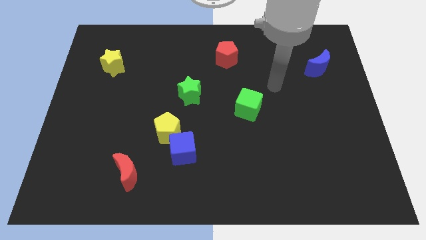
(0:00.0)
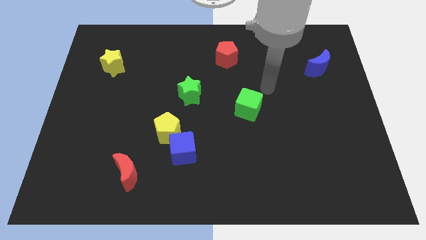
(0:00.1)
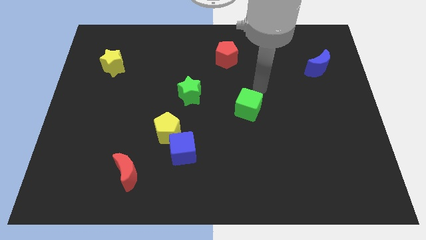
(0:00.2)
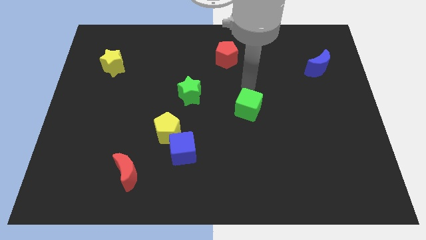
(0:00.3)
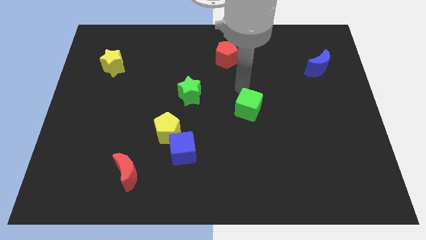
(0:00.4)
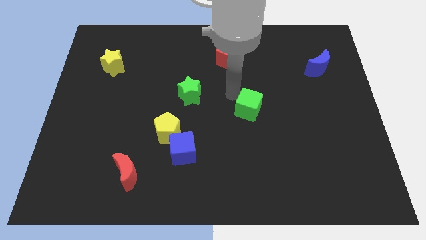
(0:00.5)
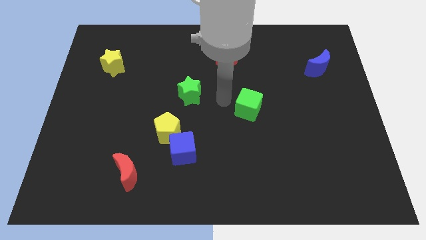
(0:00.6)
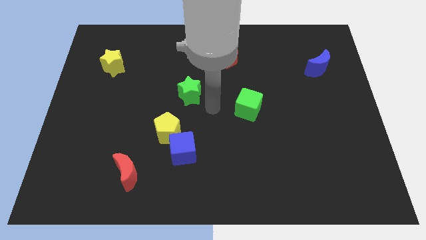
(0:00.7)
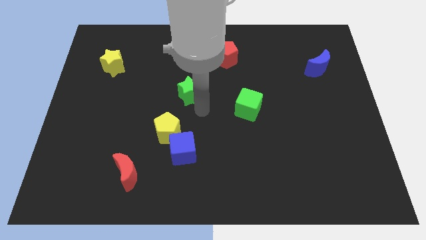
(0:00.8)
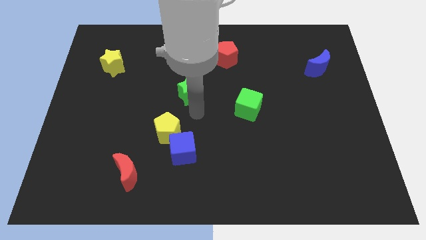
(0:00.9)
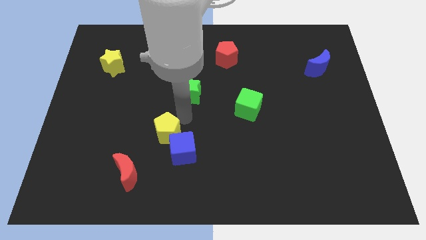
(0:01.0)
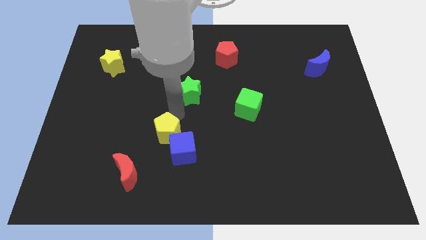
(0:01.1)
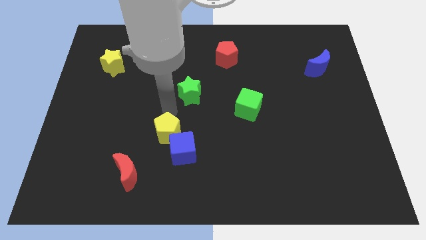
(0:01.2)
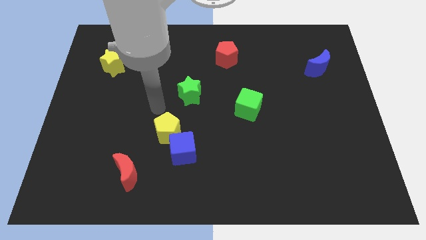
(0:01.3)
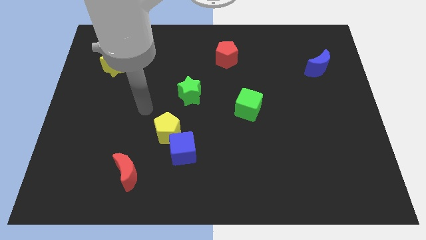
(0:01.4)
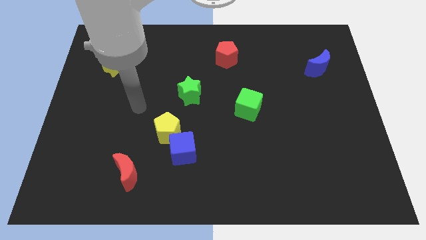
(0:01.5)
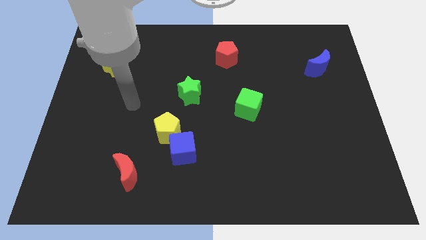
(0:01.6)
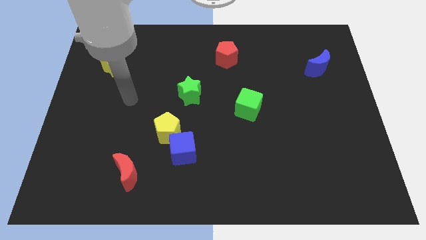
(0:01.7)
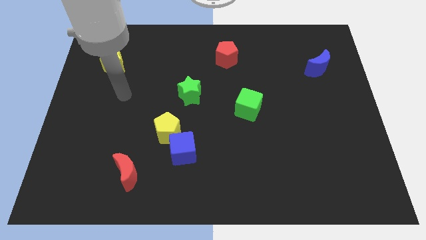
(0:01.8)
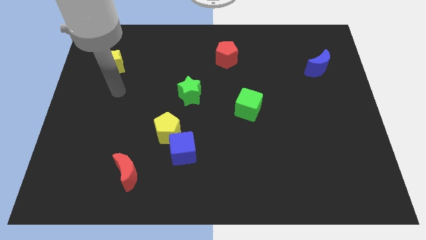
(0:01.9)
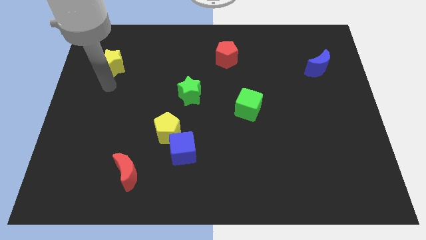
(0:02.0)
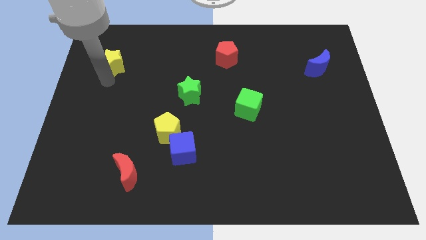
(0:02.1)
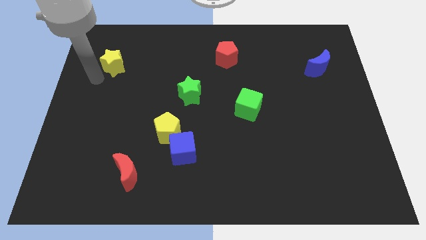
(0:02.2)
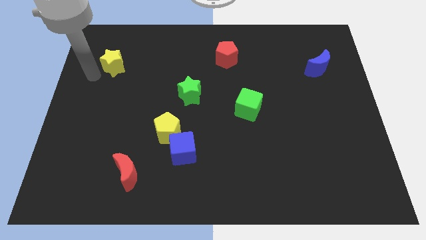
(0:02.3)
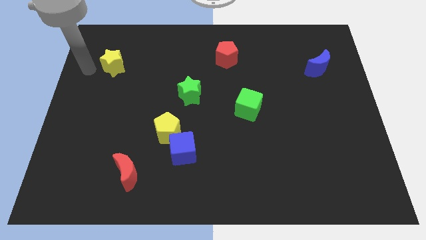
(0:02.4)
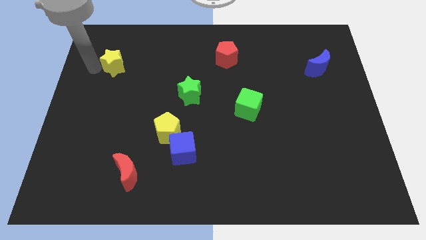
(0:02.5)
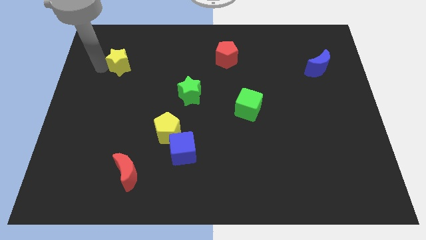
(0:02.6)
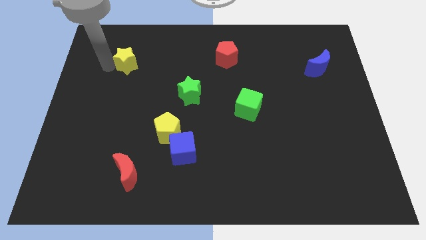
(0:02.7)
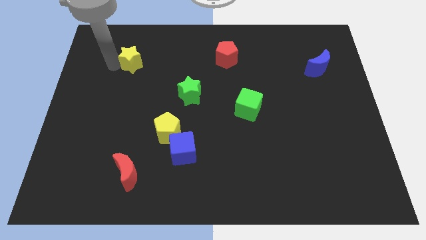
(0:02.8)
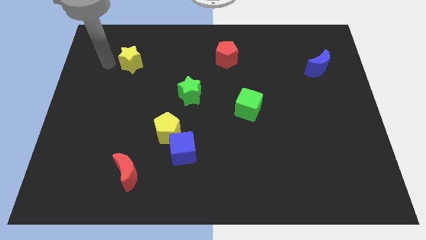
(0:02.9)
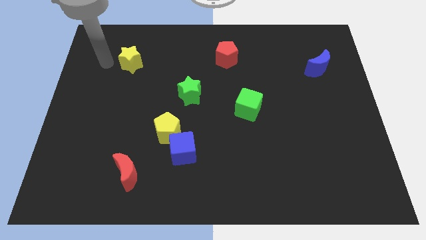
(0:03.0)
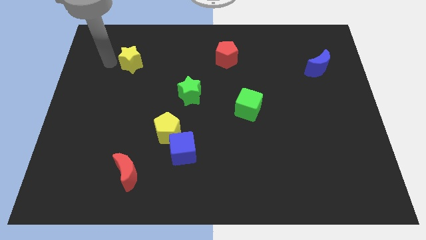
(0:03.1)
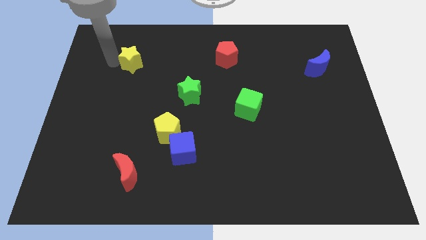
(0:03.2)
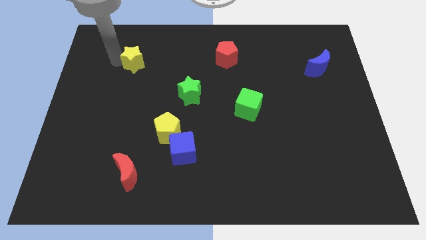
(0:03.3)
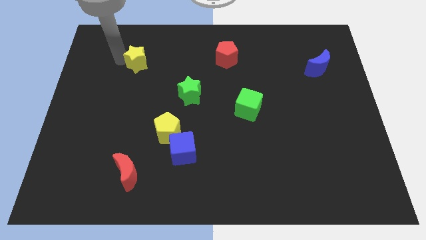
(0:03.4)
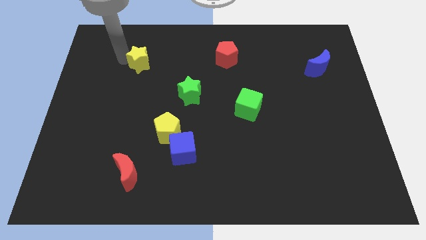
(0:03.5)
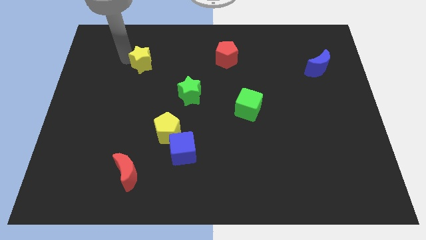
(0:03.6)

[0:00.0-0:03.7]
slide the yellow star to the right a little

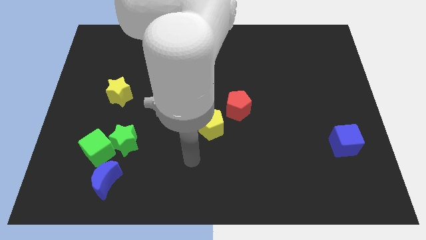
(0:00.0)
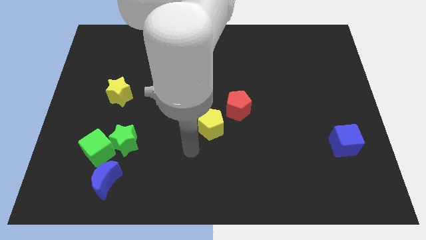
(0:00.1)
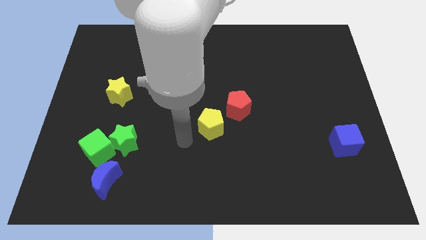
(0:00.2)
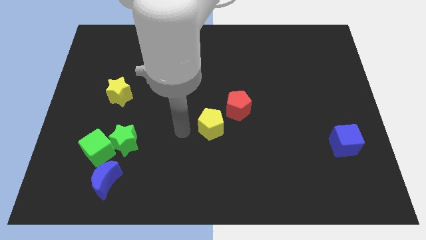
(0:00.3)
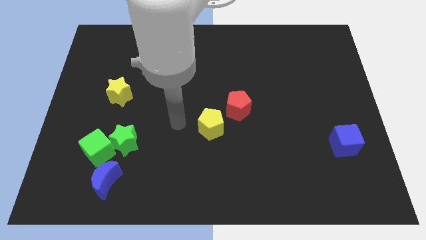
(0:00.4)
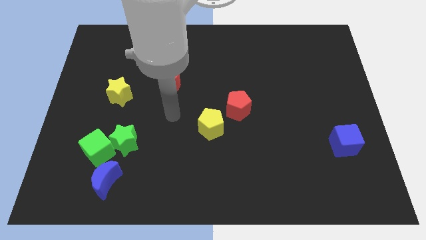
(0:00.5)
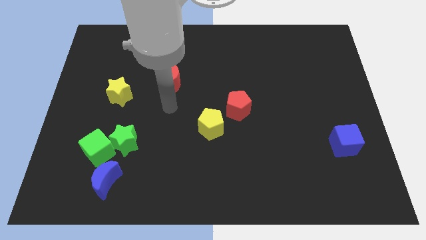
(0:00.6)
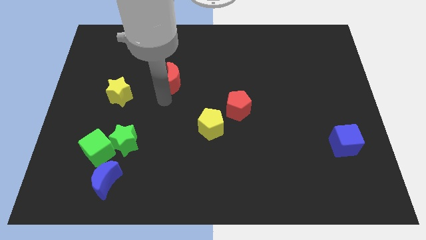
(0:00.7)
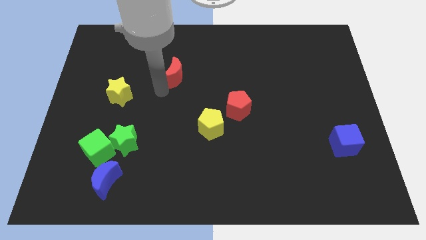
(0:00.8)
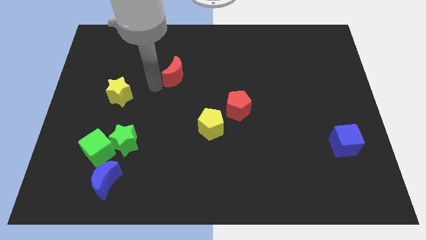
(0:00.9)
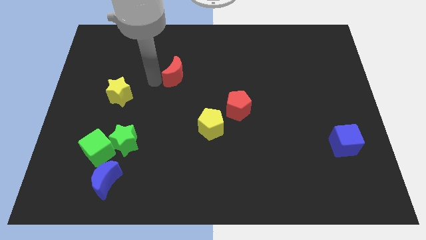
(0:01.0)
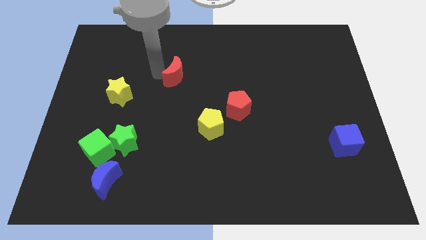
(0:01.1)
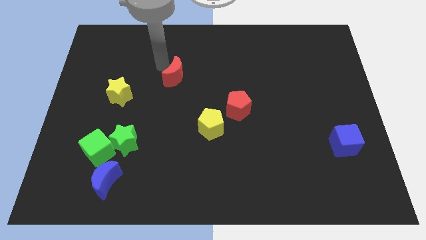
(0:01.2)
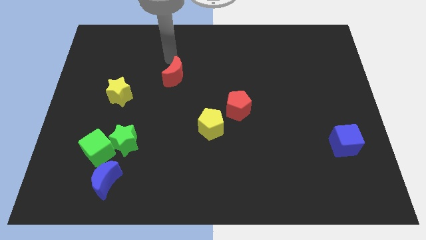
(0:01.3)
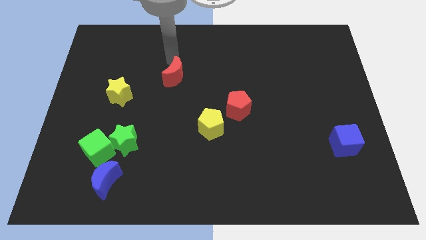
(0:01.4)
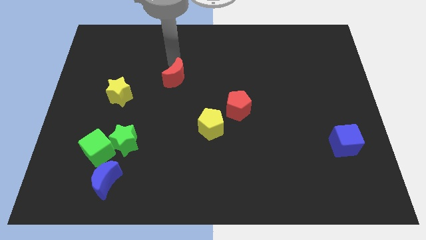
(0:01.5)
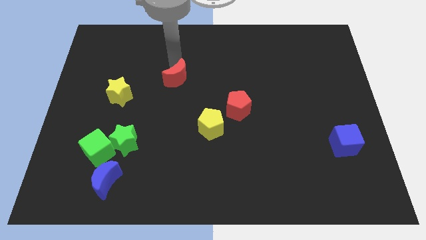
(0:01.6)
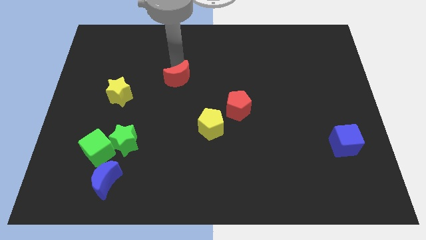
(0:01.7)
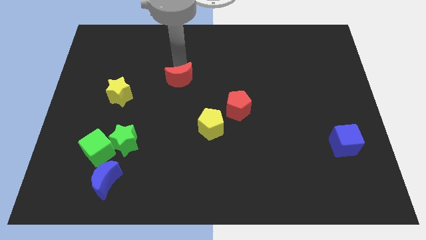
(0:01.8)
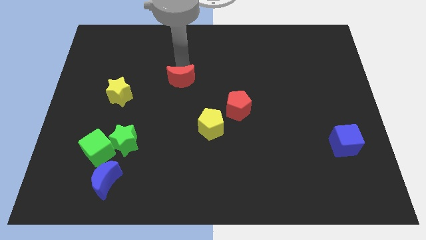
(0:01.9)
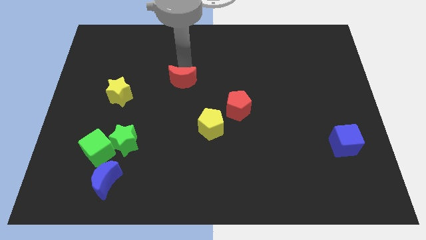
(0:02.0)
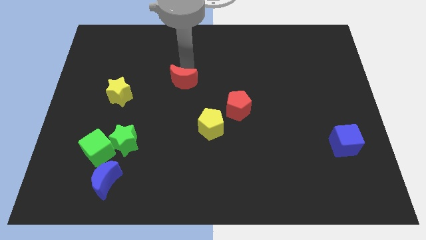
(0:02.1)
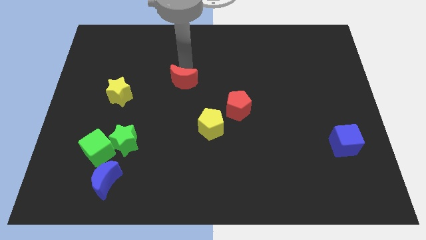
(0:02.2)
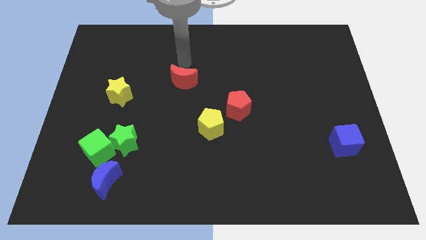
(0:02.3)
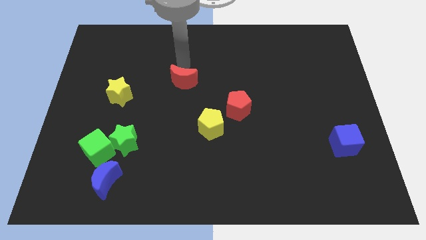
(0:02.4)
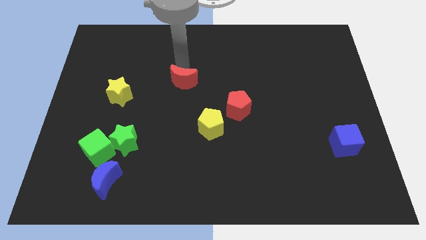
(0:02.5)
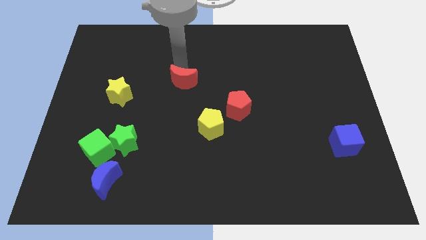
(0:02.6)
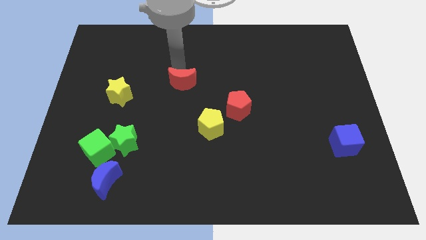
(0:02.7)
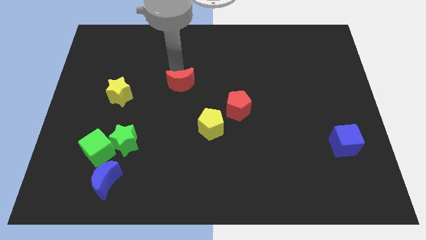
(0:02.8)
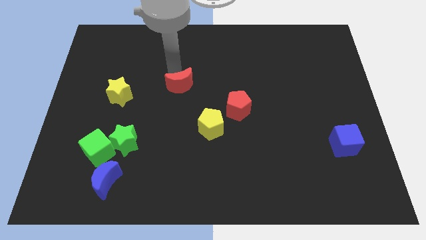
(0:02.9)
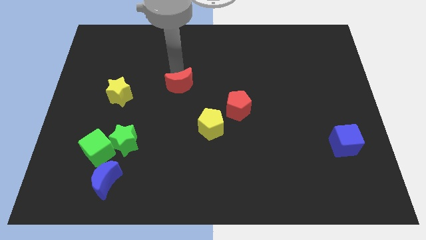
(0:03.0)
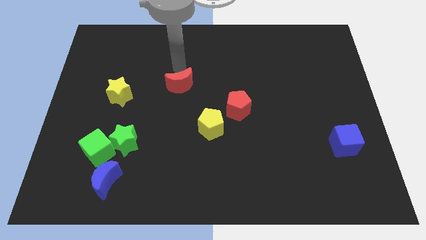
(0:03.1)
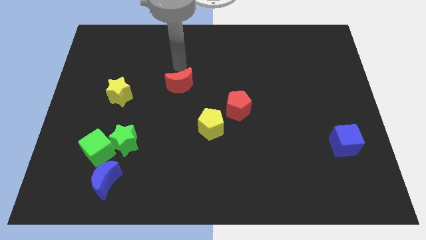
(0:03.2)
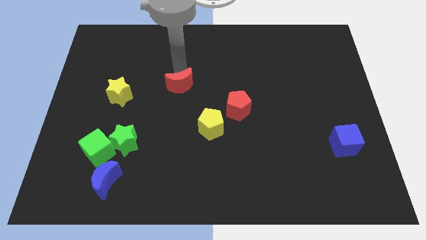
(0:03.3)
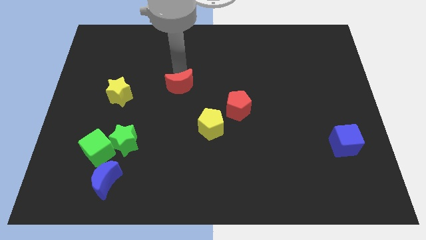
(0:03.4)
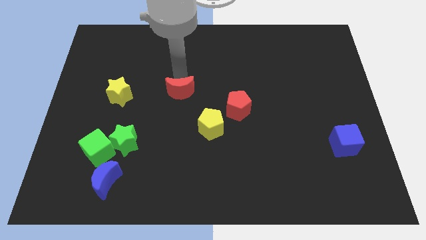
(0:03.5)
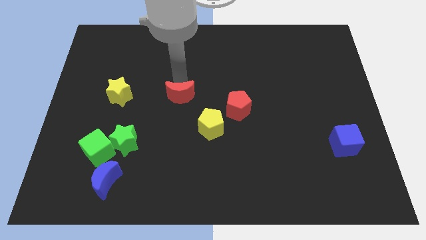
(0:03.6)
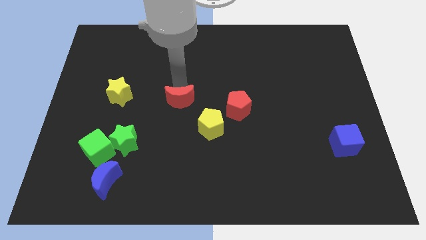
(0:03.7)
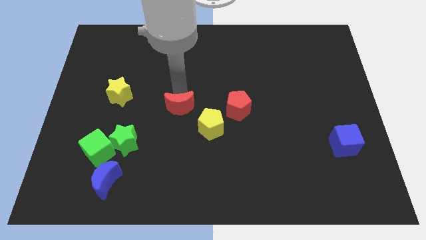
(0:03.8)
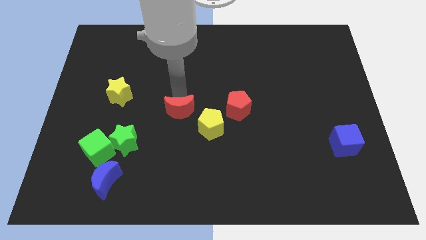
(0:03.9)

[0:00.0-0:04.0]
slightly move the red moon downwards and to the right diagonally

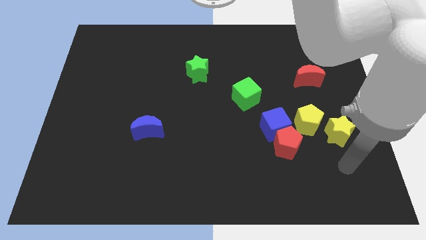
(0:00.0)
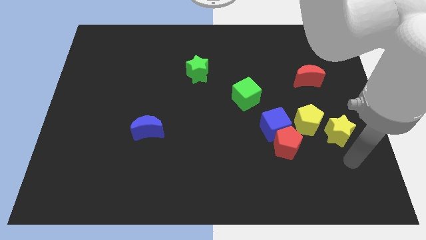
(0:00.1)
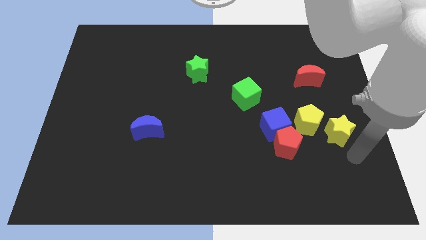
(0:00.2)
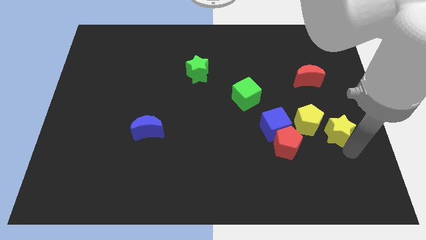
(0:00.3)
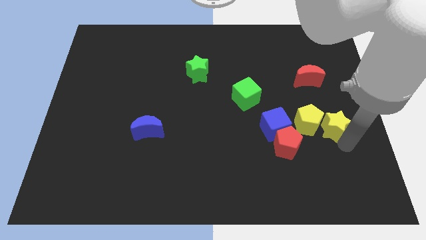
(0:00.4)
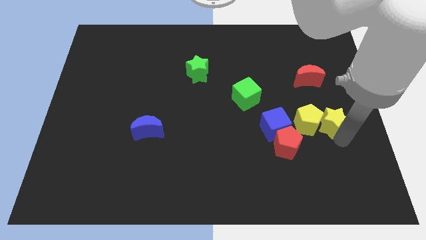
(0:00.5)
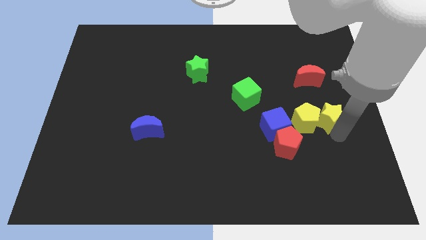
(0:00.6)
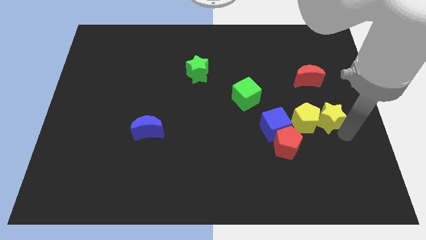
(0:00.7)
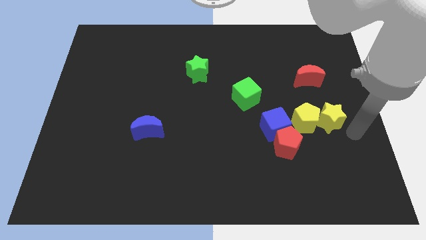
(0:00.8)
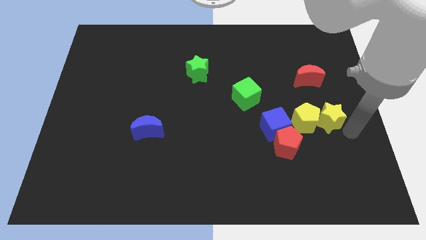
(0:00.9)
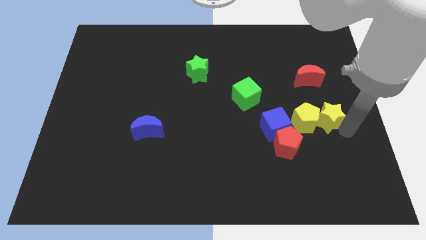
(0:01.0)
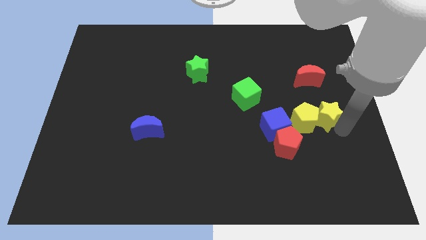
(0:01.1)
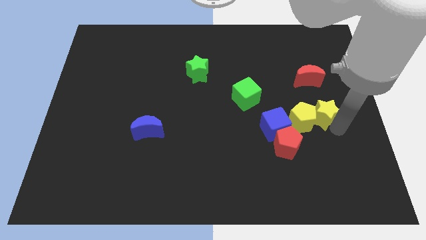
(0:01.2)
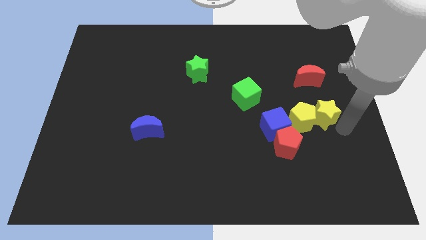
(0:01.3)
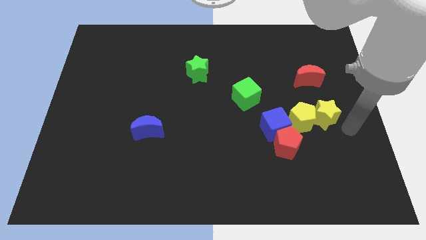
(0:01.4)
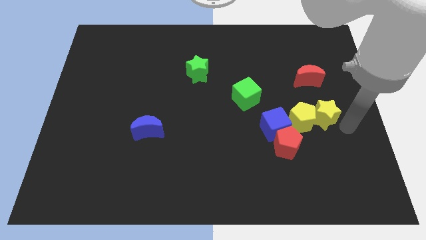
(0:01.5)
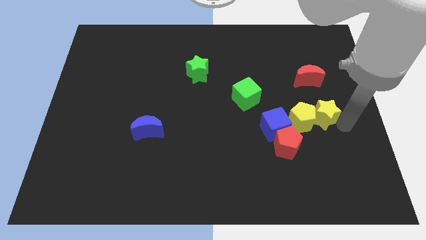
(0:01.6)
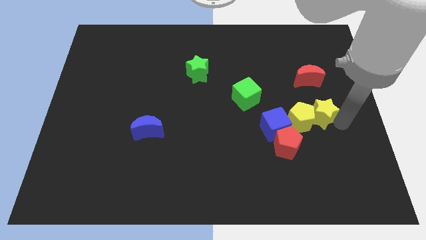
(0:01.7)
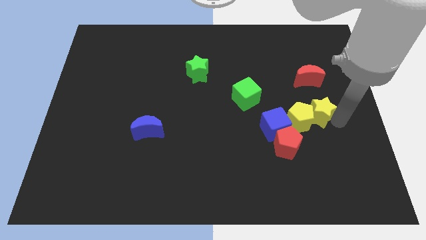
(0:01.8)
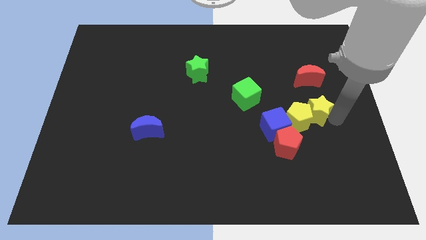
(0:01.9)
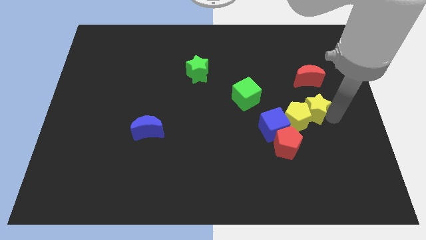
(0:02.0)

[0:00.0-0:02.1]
slide the yellow star somewhat upwards and then to the left
